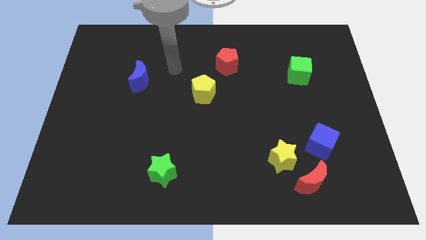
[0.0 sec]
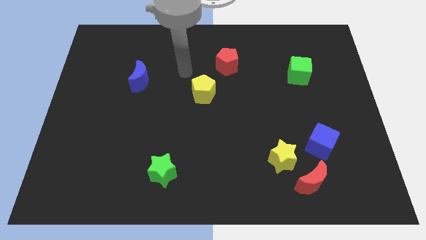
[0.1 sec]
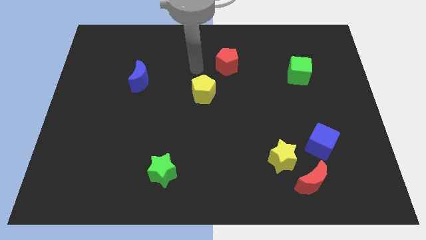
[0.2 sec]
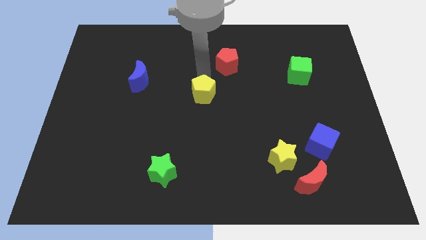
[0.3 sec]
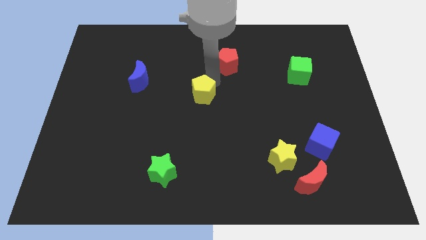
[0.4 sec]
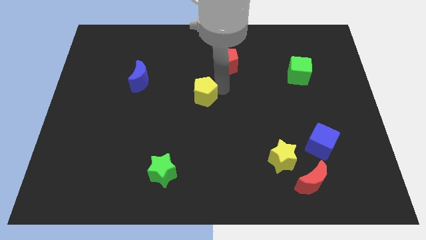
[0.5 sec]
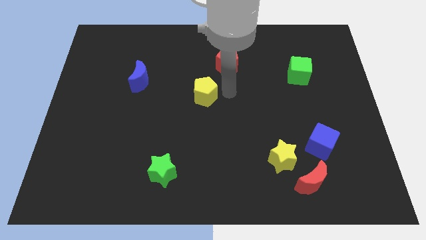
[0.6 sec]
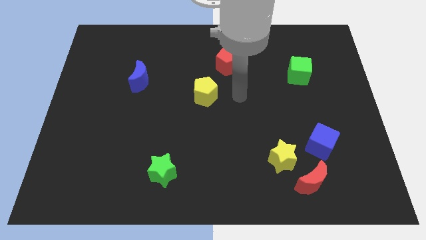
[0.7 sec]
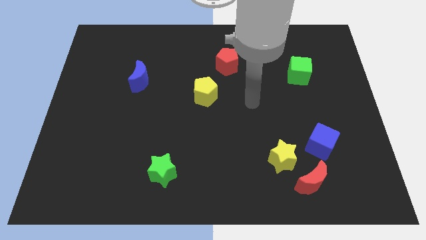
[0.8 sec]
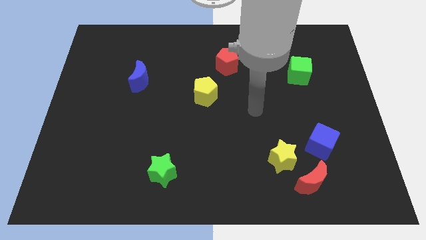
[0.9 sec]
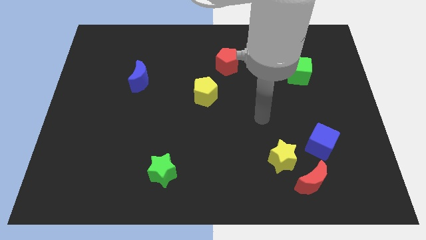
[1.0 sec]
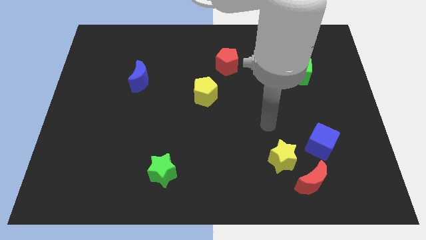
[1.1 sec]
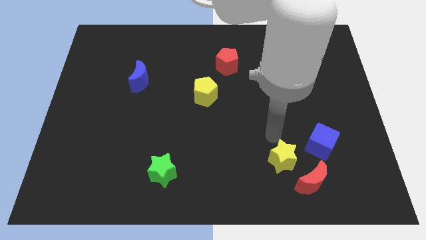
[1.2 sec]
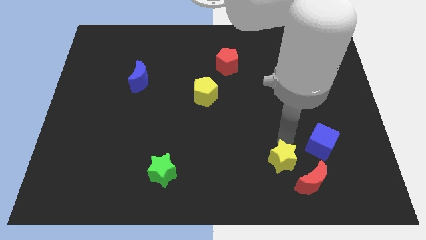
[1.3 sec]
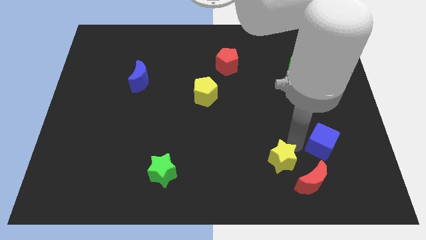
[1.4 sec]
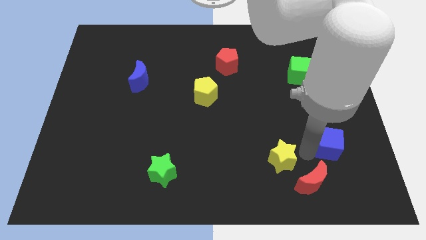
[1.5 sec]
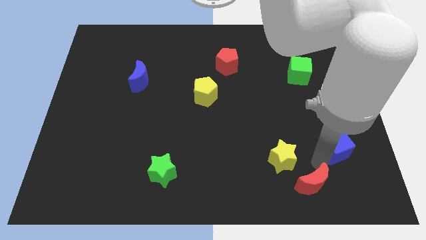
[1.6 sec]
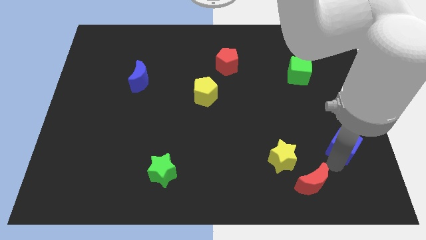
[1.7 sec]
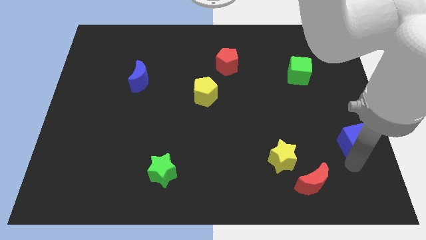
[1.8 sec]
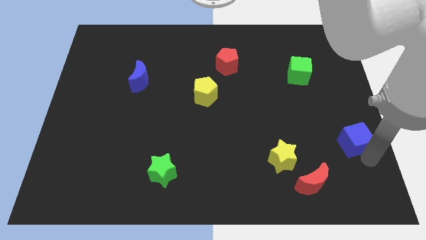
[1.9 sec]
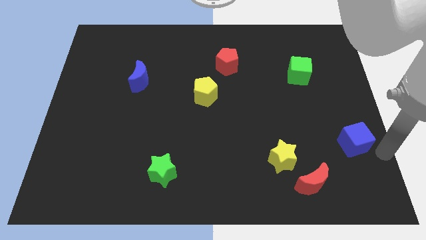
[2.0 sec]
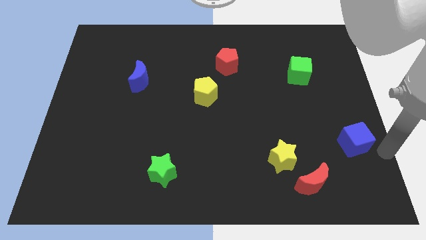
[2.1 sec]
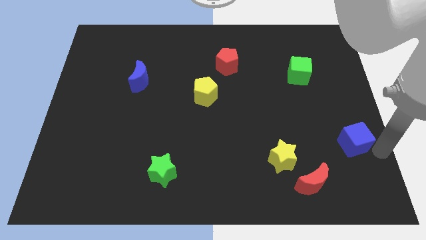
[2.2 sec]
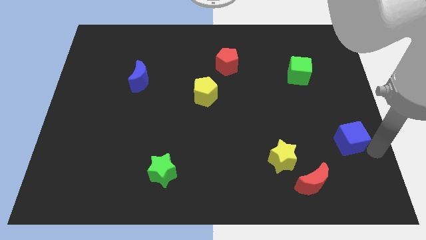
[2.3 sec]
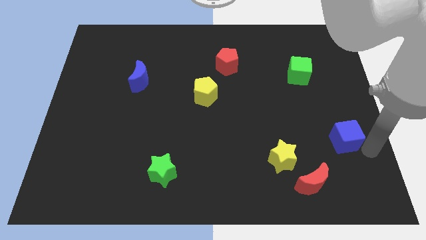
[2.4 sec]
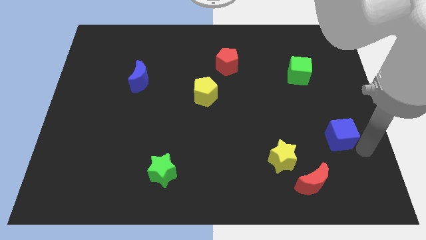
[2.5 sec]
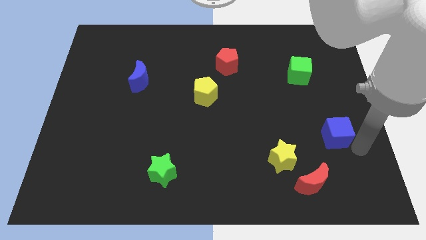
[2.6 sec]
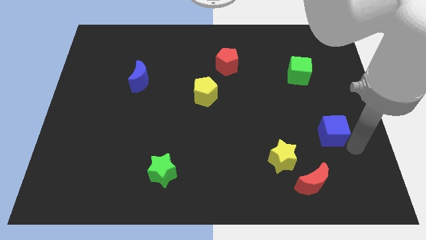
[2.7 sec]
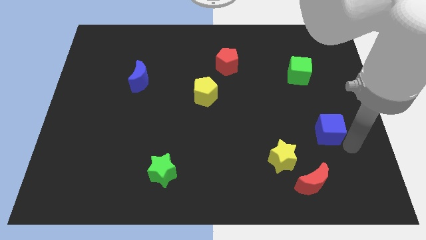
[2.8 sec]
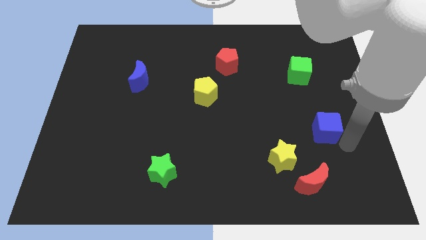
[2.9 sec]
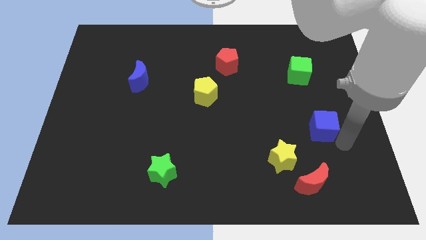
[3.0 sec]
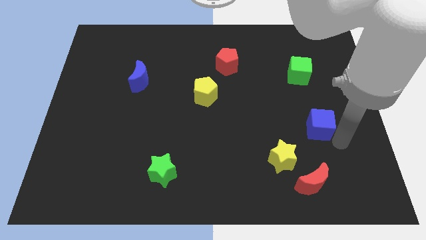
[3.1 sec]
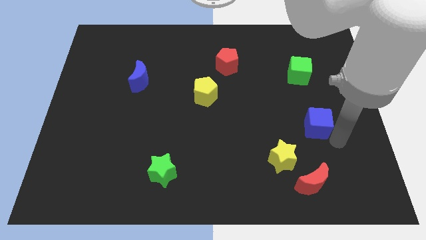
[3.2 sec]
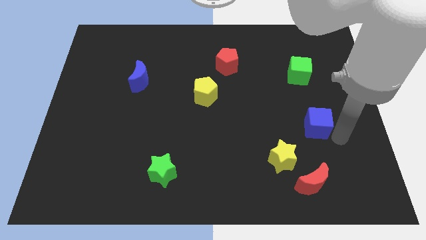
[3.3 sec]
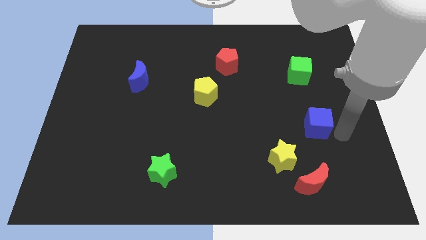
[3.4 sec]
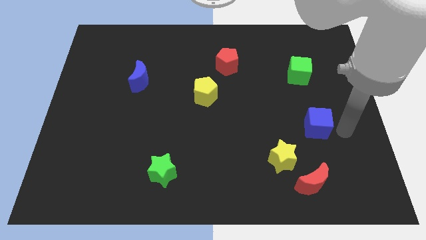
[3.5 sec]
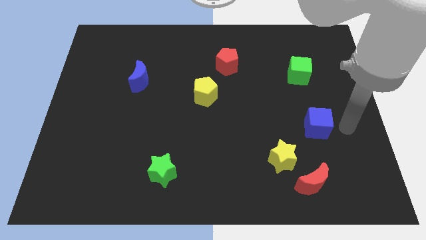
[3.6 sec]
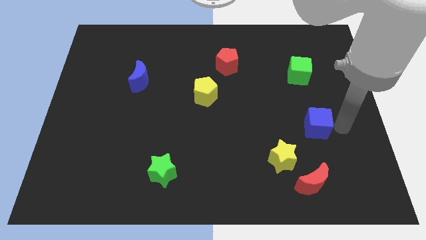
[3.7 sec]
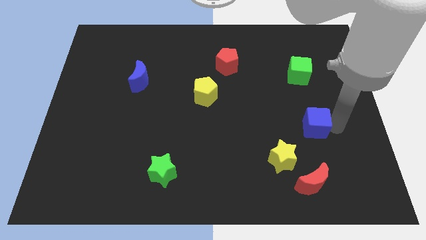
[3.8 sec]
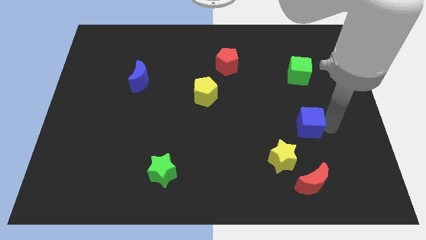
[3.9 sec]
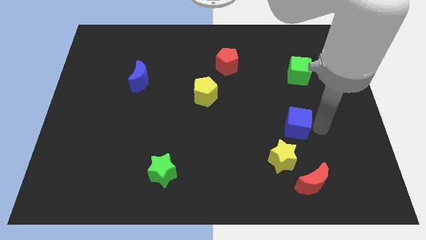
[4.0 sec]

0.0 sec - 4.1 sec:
slide the blue cube a little bit up and to the left diagonally

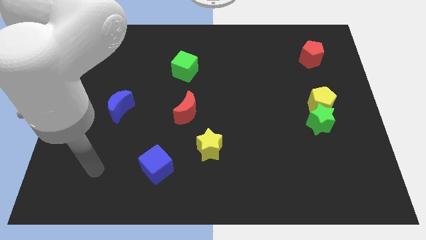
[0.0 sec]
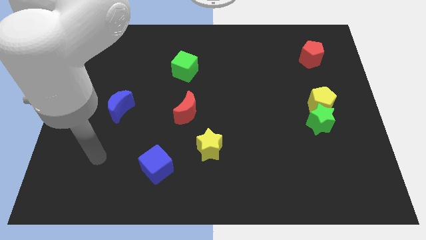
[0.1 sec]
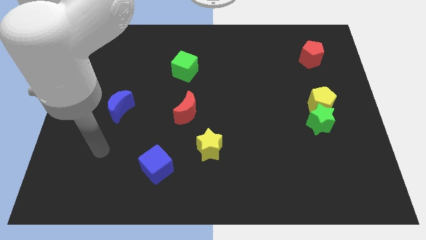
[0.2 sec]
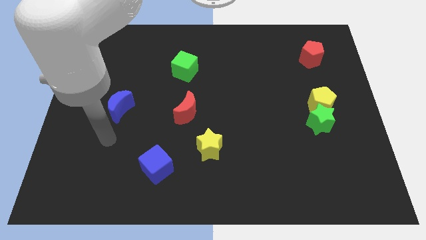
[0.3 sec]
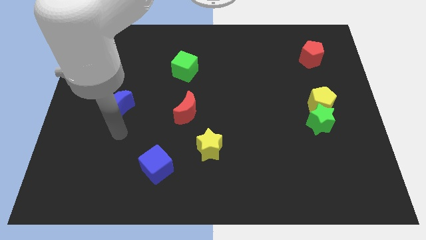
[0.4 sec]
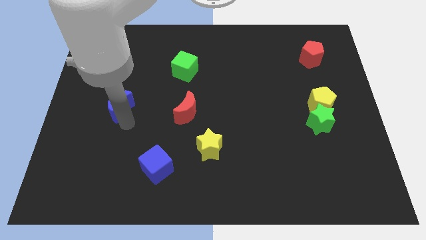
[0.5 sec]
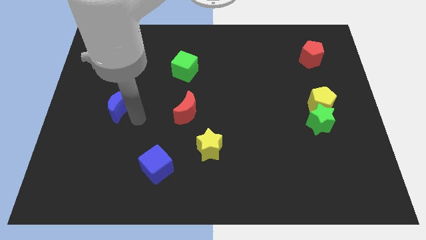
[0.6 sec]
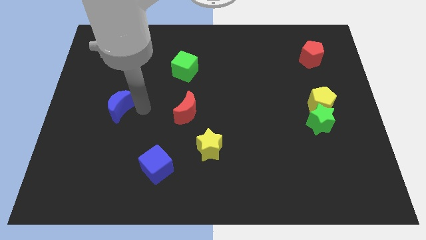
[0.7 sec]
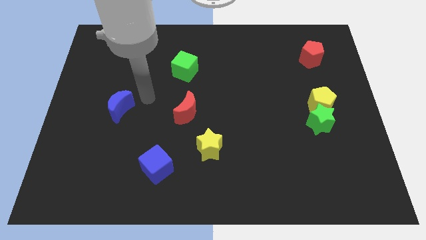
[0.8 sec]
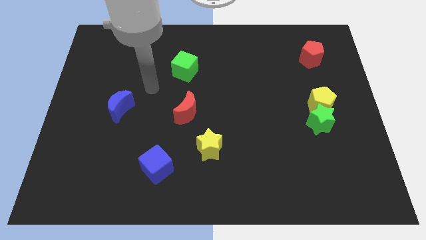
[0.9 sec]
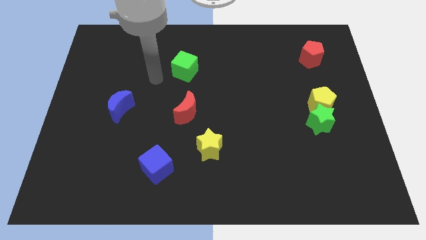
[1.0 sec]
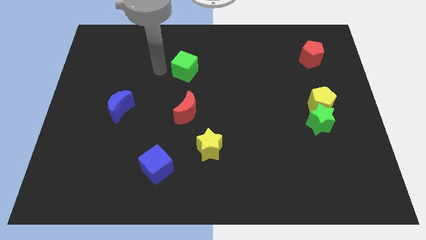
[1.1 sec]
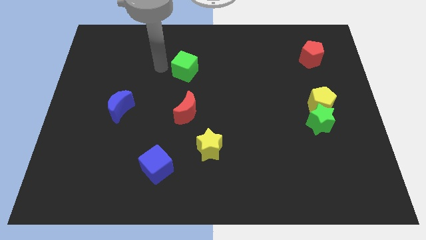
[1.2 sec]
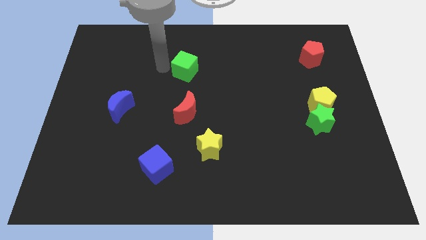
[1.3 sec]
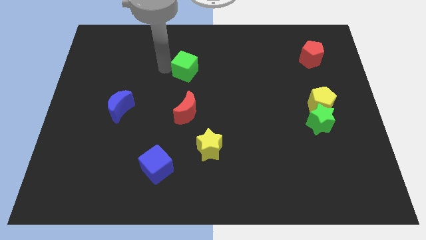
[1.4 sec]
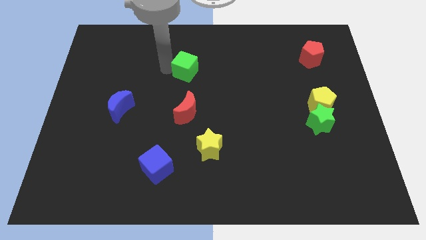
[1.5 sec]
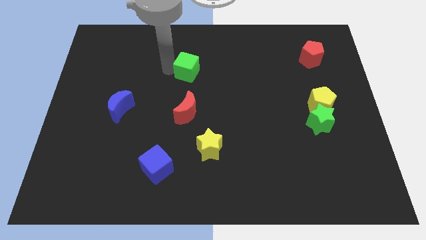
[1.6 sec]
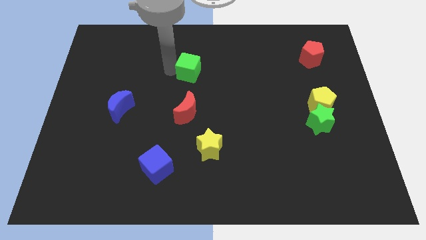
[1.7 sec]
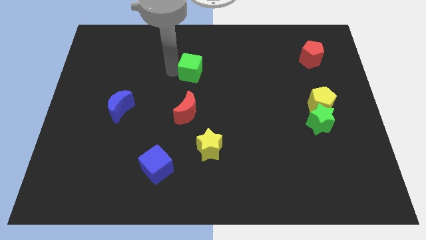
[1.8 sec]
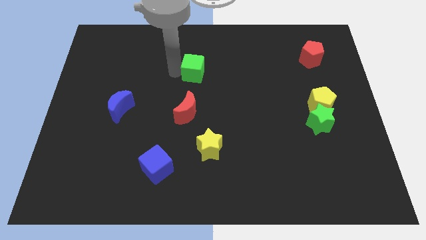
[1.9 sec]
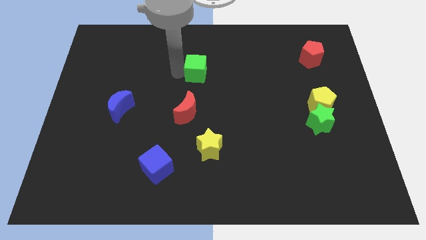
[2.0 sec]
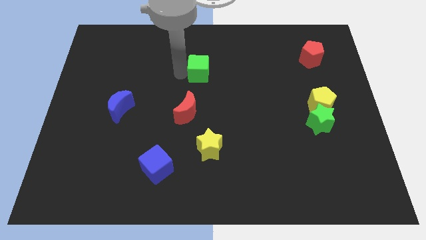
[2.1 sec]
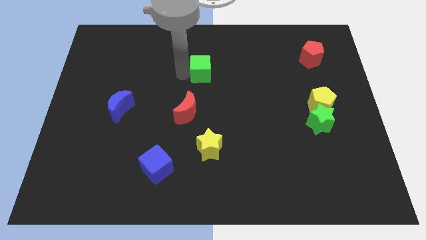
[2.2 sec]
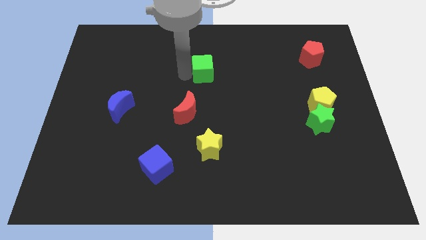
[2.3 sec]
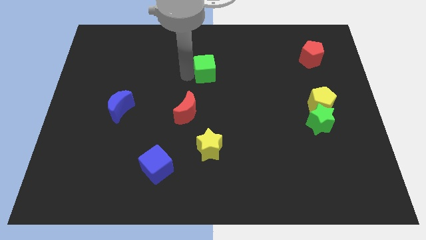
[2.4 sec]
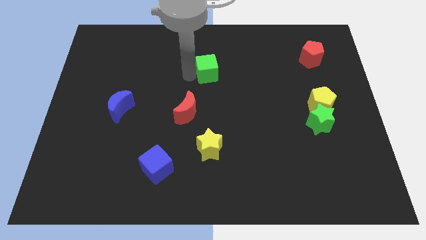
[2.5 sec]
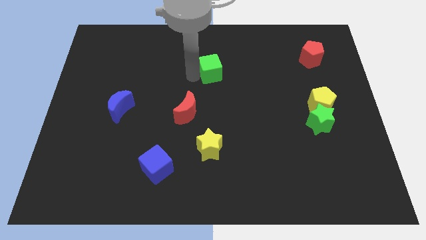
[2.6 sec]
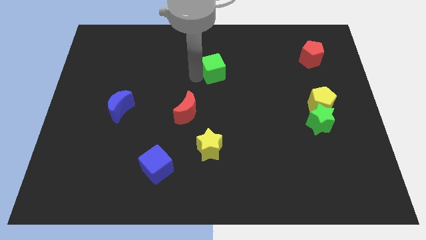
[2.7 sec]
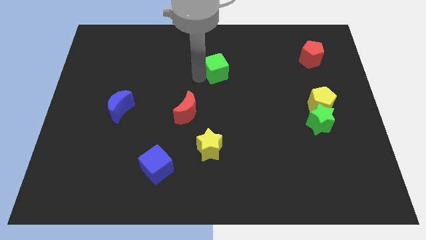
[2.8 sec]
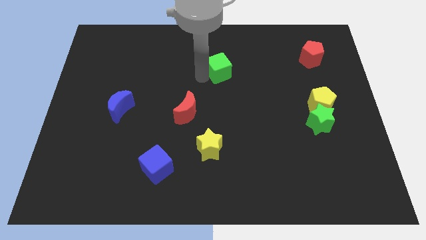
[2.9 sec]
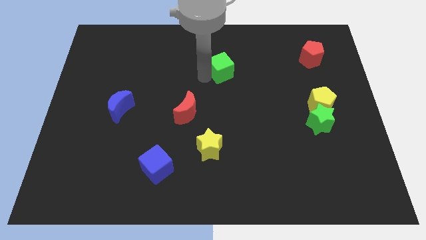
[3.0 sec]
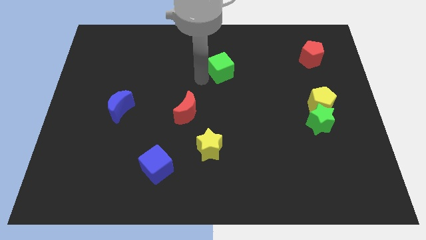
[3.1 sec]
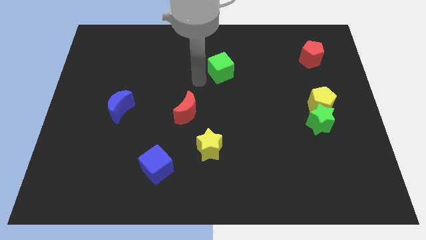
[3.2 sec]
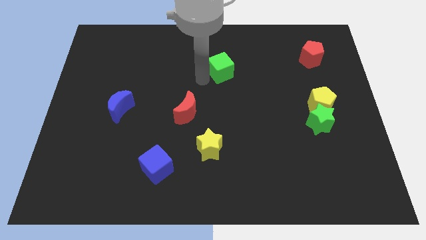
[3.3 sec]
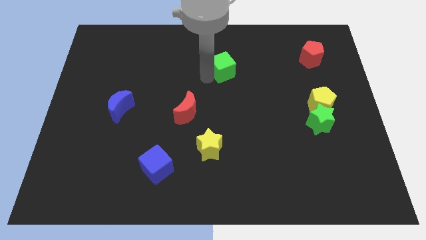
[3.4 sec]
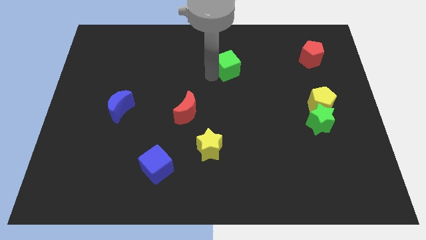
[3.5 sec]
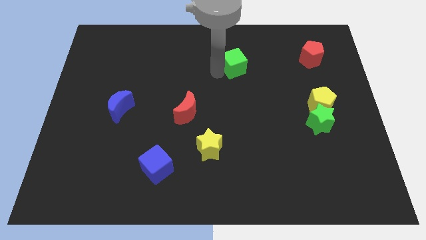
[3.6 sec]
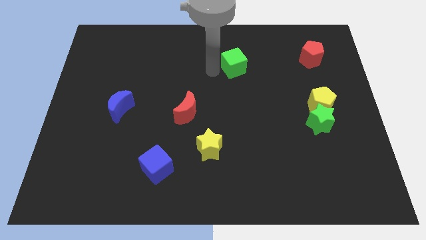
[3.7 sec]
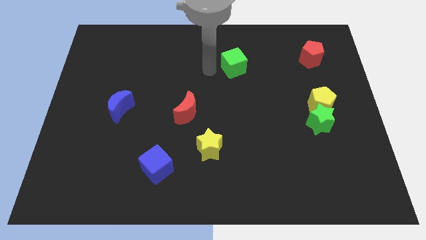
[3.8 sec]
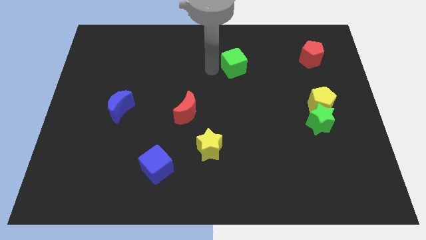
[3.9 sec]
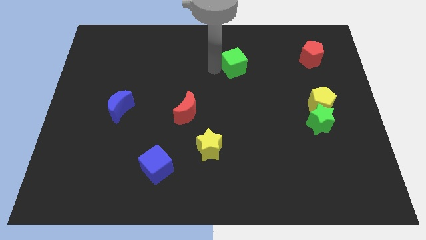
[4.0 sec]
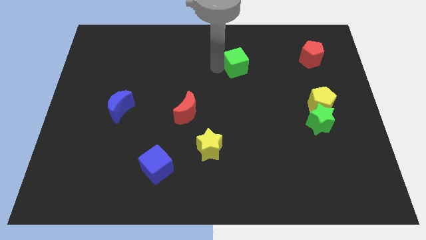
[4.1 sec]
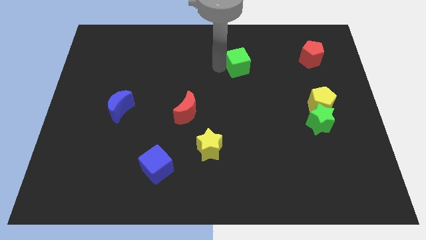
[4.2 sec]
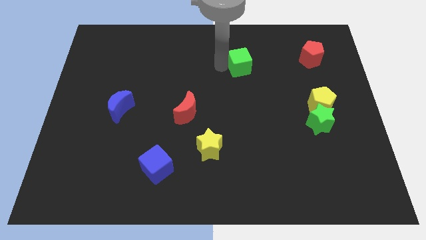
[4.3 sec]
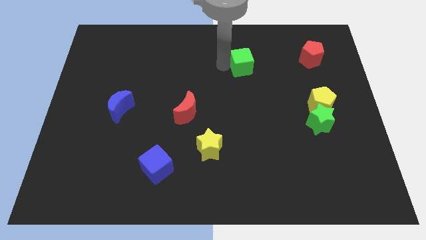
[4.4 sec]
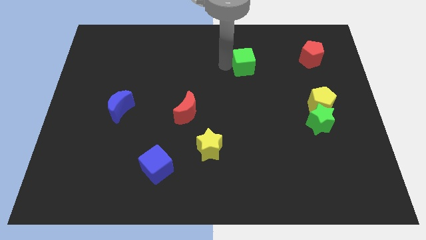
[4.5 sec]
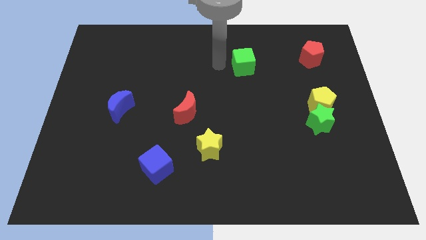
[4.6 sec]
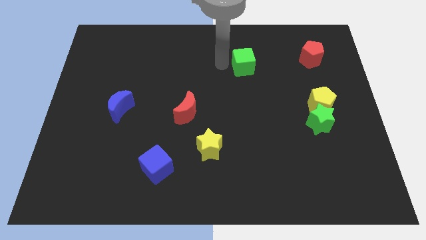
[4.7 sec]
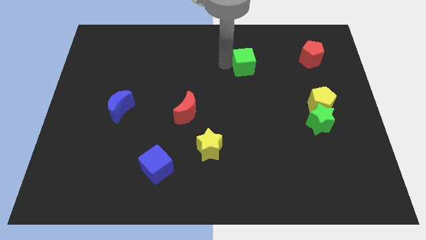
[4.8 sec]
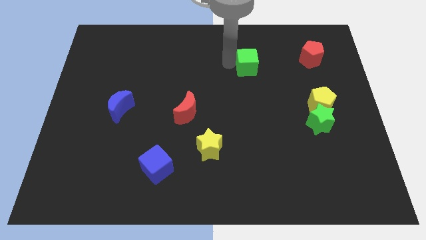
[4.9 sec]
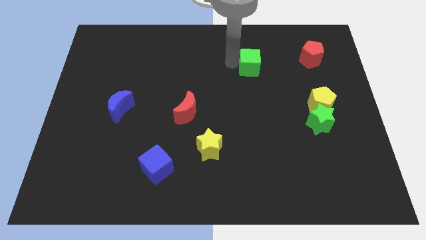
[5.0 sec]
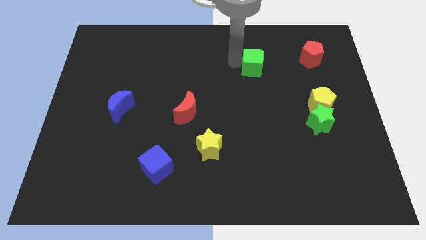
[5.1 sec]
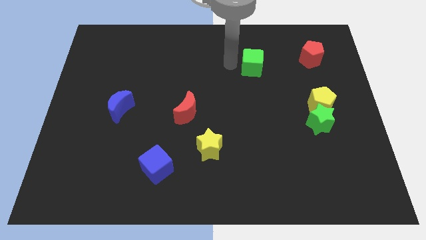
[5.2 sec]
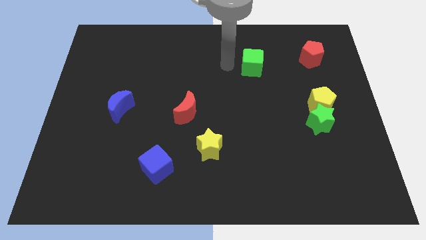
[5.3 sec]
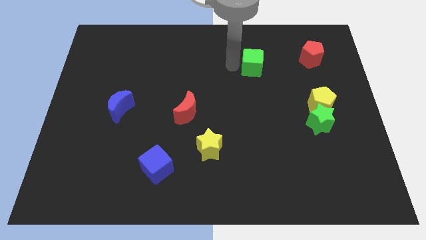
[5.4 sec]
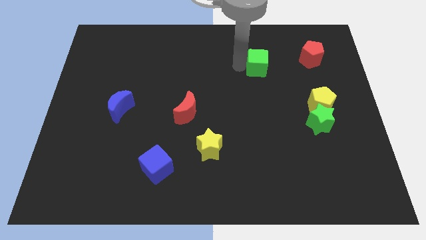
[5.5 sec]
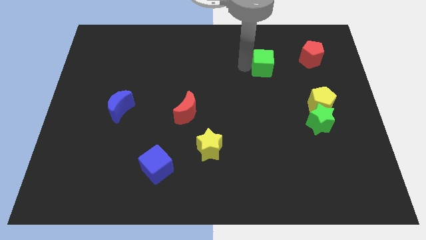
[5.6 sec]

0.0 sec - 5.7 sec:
push the green cube to the right
